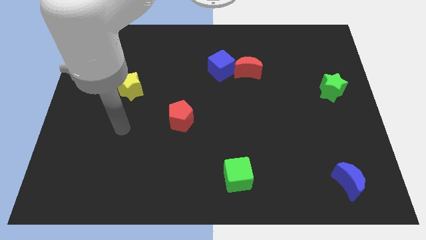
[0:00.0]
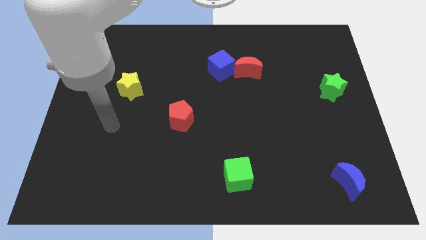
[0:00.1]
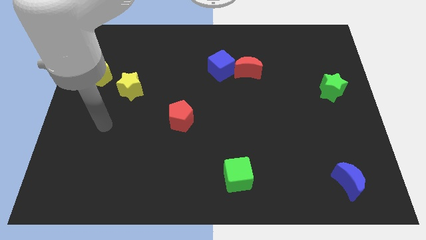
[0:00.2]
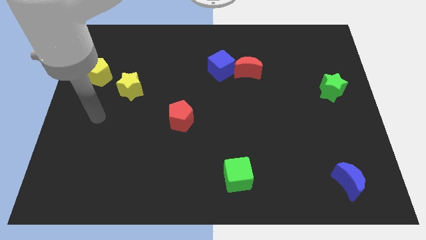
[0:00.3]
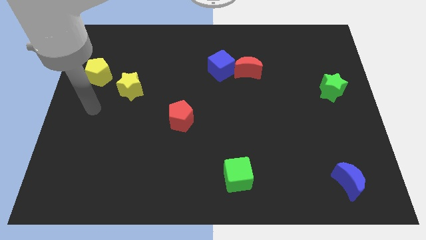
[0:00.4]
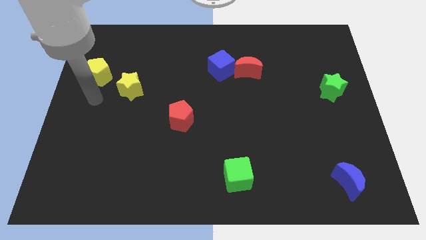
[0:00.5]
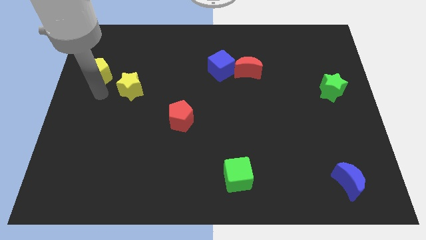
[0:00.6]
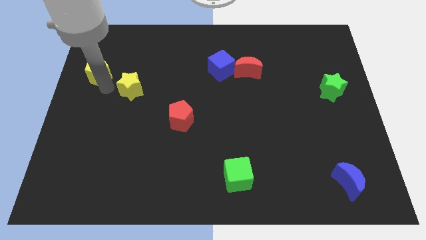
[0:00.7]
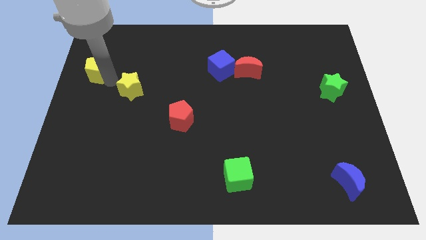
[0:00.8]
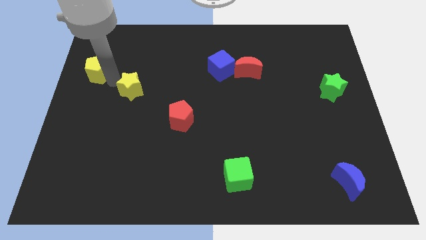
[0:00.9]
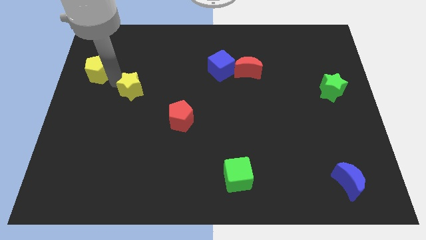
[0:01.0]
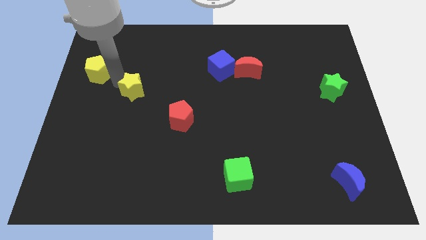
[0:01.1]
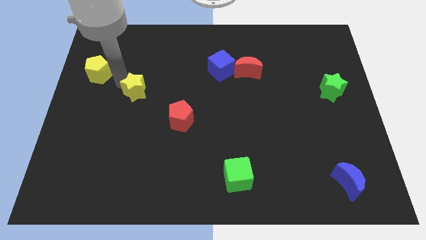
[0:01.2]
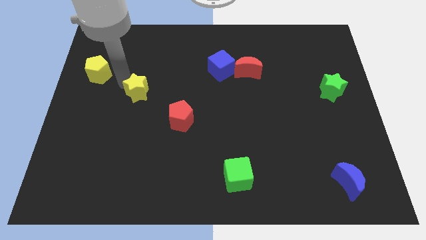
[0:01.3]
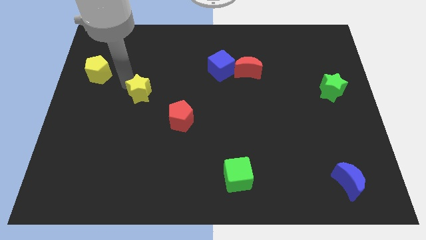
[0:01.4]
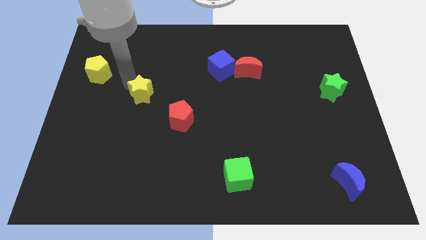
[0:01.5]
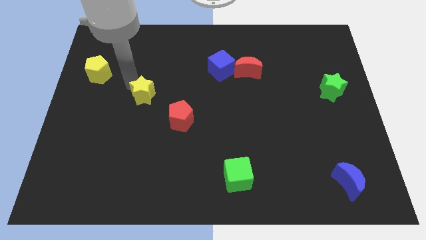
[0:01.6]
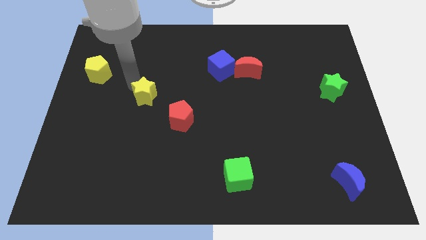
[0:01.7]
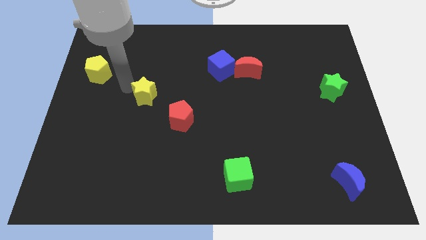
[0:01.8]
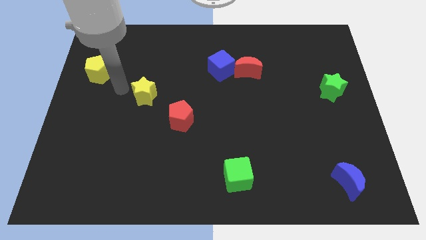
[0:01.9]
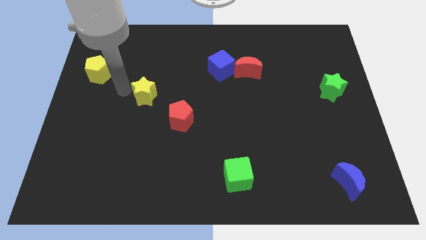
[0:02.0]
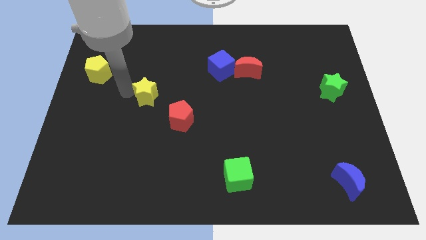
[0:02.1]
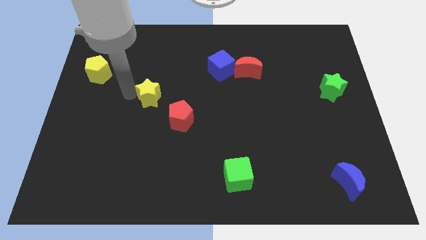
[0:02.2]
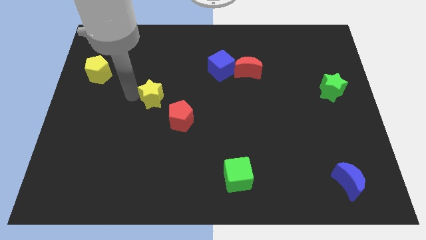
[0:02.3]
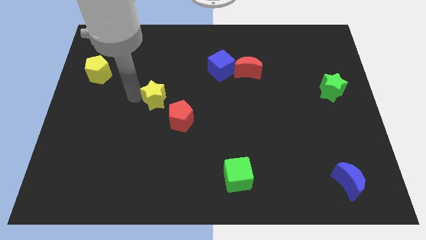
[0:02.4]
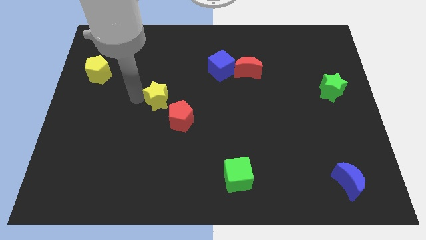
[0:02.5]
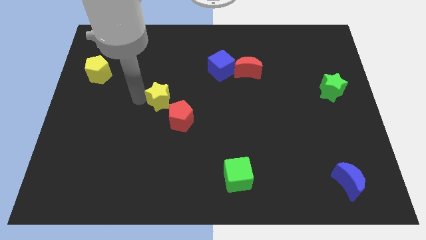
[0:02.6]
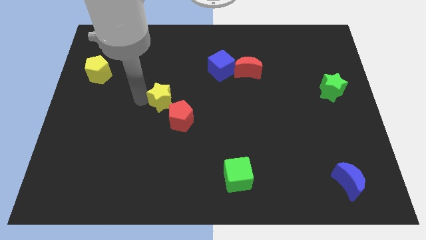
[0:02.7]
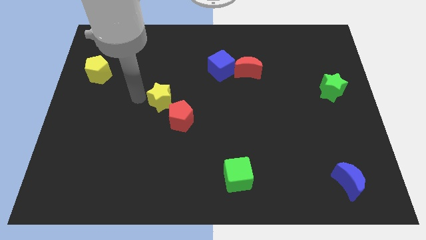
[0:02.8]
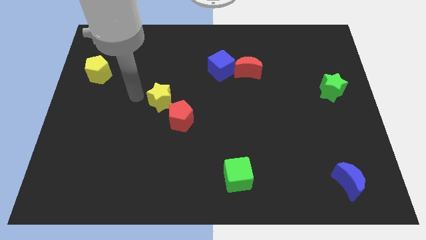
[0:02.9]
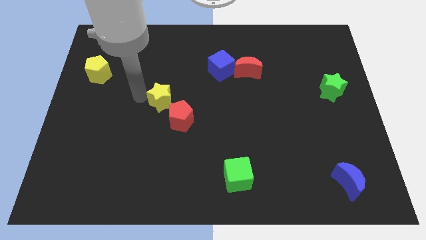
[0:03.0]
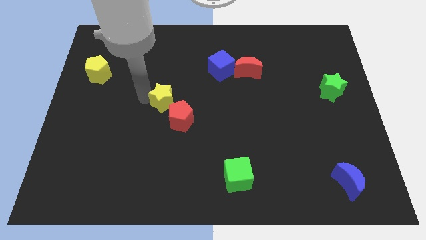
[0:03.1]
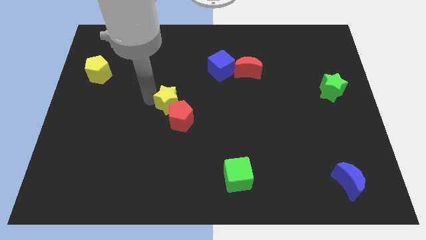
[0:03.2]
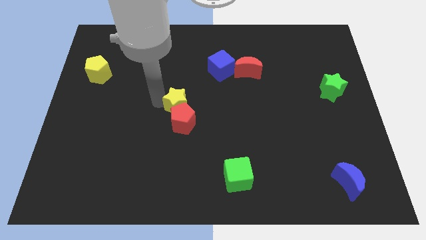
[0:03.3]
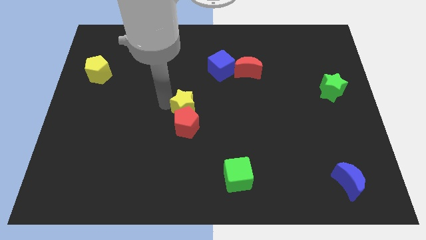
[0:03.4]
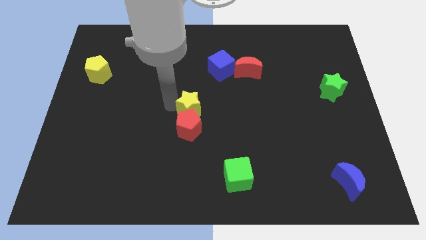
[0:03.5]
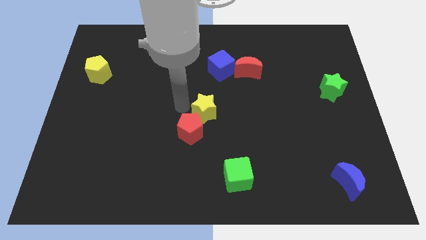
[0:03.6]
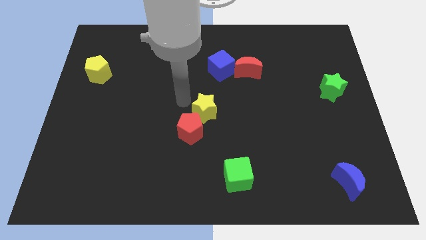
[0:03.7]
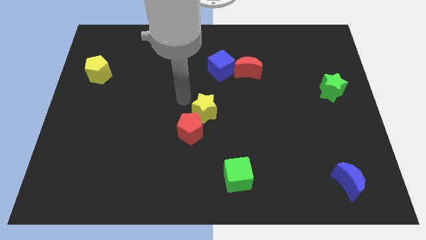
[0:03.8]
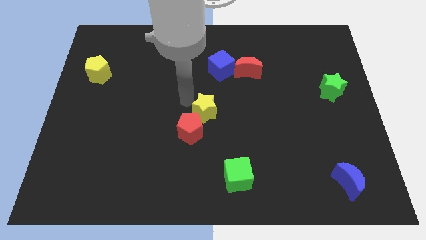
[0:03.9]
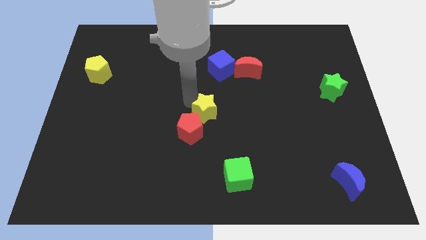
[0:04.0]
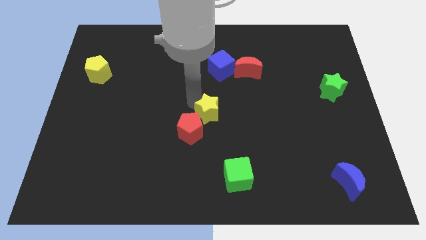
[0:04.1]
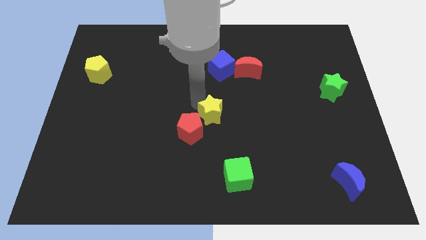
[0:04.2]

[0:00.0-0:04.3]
put the yellow star just right of the red pentagon

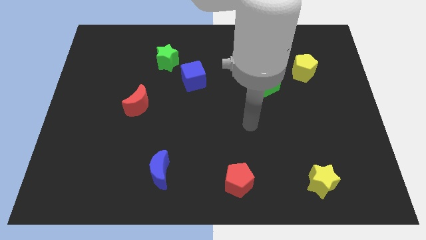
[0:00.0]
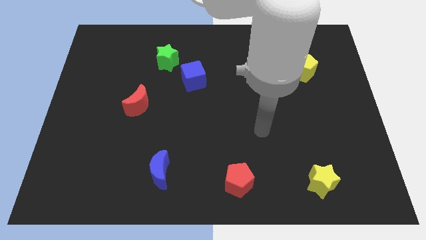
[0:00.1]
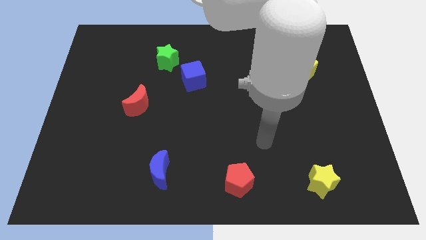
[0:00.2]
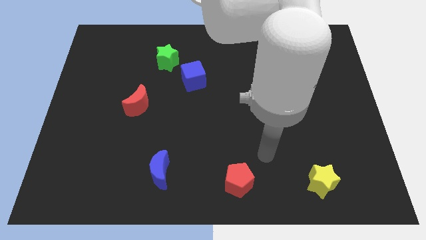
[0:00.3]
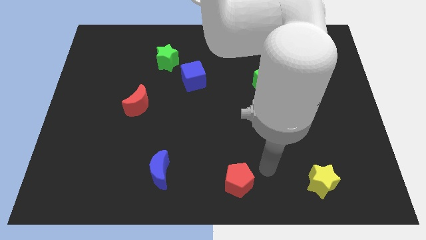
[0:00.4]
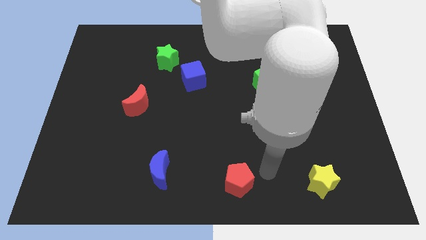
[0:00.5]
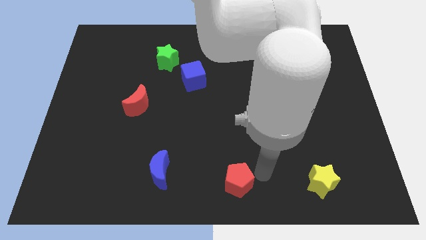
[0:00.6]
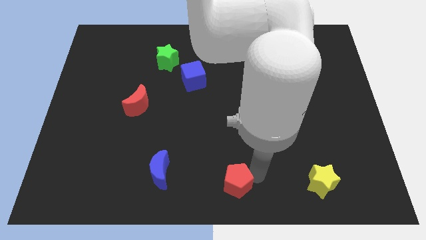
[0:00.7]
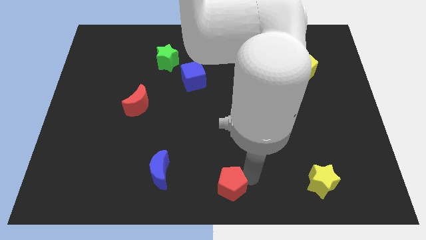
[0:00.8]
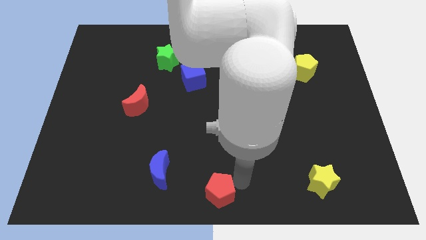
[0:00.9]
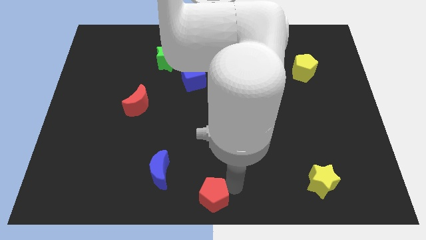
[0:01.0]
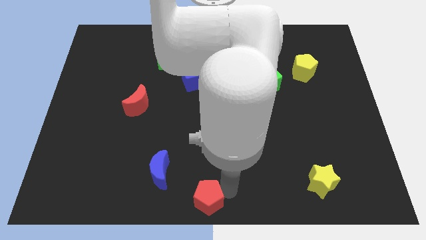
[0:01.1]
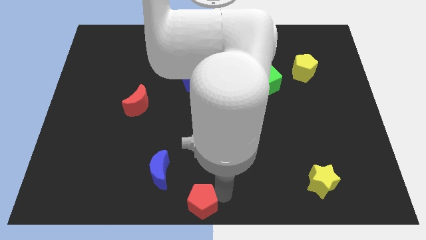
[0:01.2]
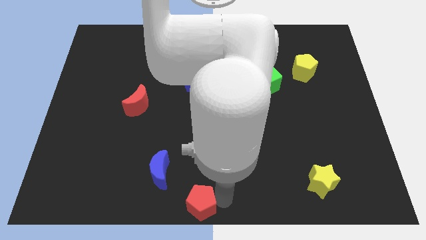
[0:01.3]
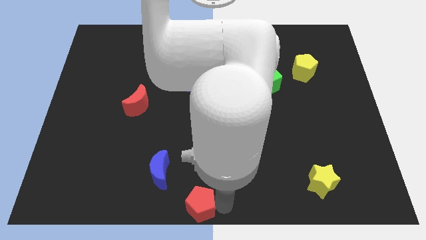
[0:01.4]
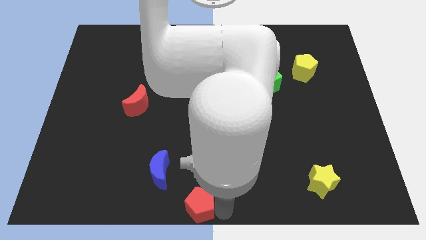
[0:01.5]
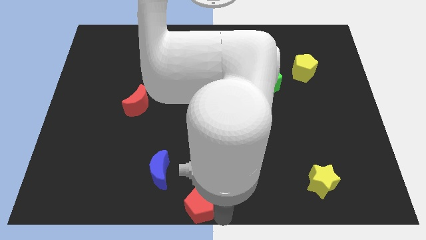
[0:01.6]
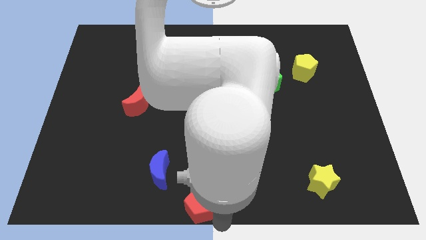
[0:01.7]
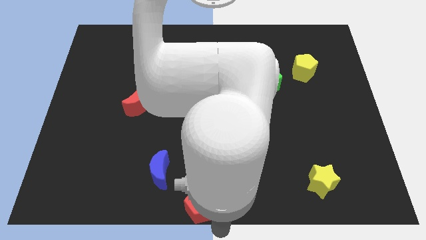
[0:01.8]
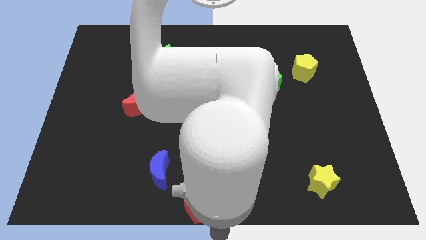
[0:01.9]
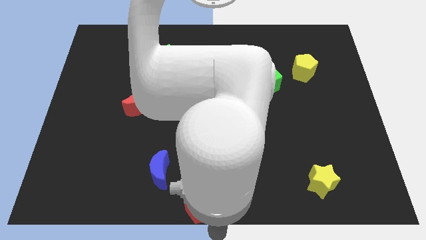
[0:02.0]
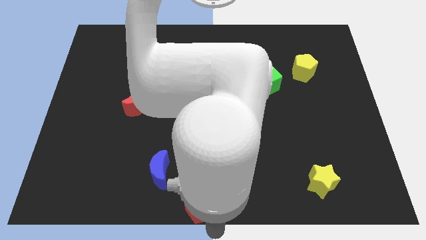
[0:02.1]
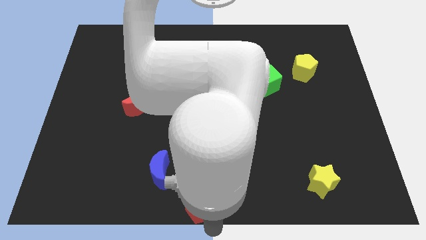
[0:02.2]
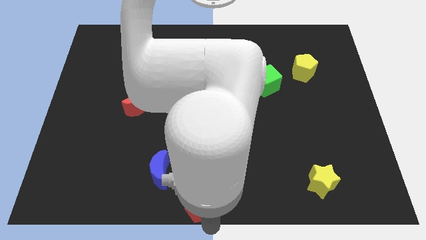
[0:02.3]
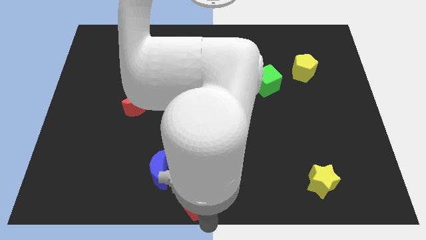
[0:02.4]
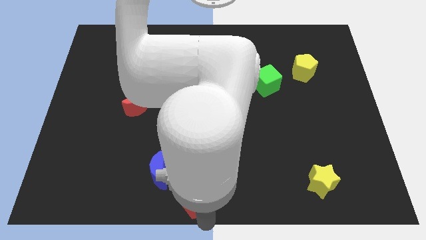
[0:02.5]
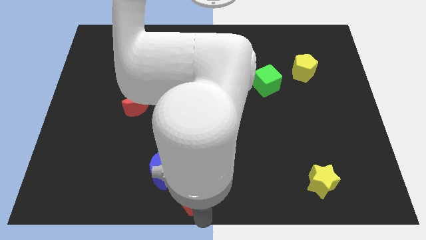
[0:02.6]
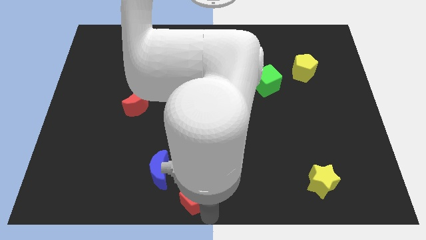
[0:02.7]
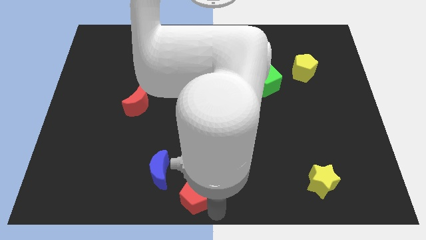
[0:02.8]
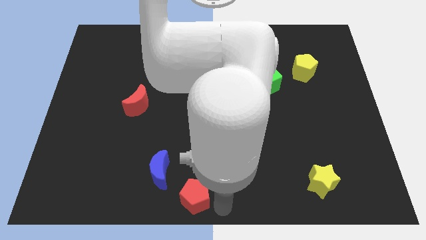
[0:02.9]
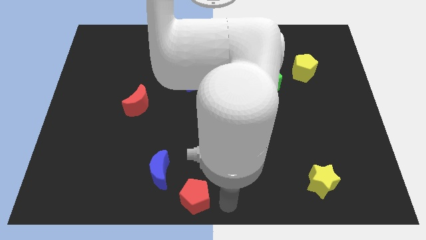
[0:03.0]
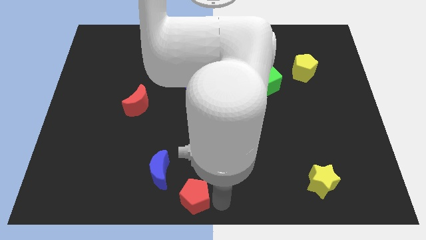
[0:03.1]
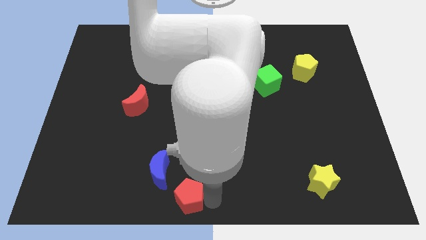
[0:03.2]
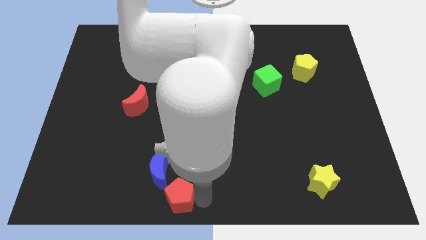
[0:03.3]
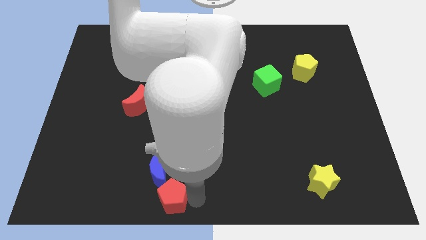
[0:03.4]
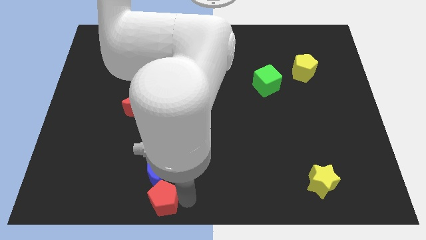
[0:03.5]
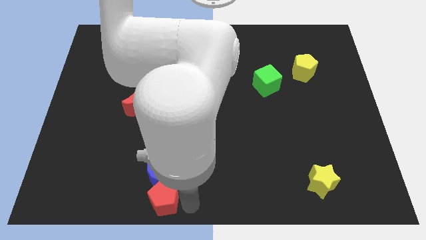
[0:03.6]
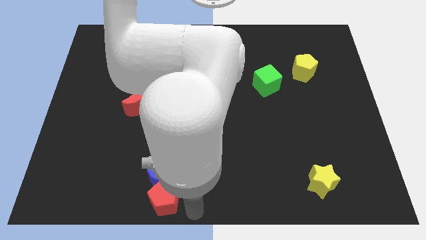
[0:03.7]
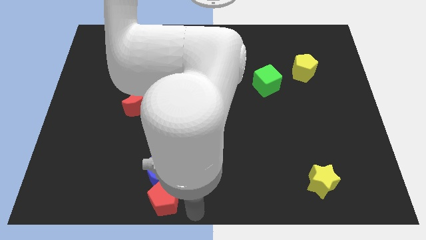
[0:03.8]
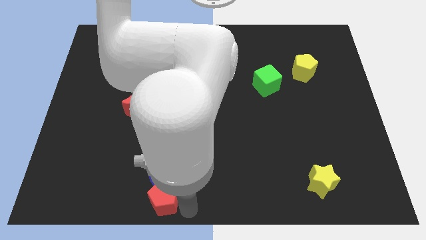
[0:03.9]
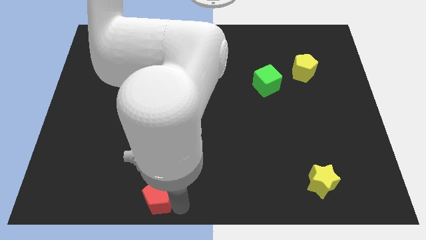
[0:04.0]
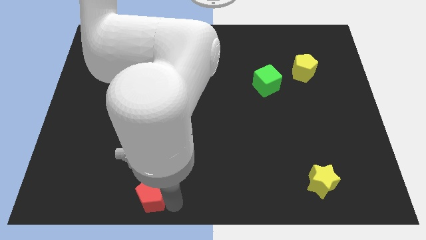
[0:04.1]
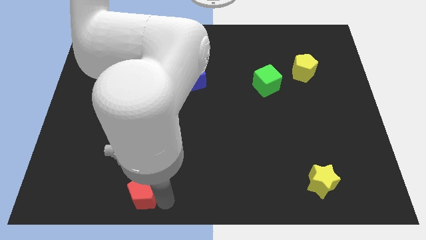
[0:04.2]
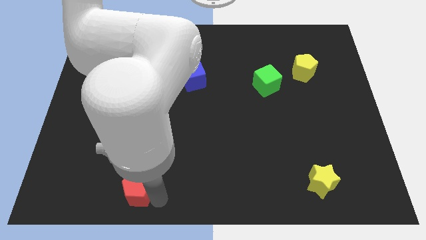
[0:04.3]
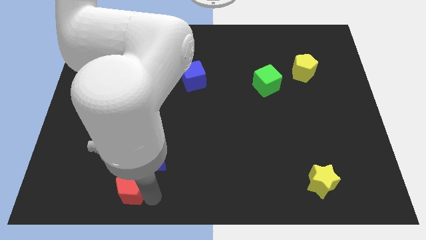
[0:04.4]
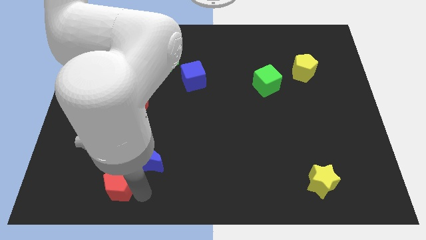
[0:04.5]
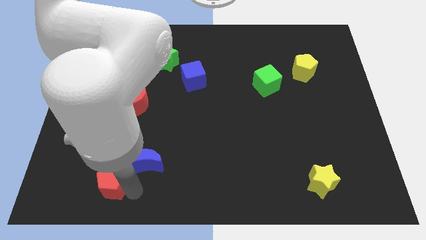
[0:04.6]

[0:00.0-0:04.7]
move the red pentagon to the left side of the blue moon
